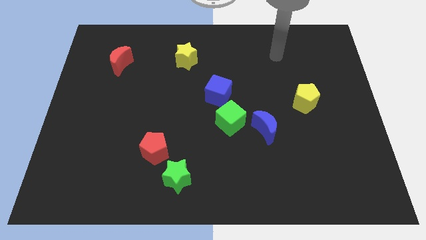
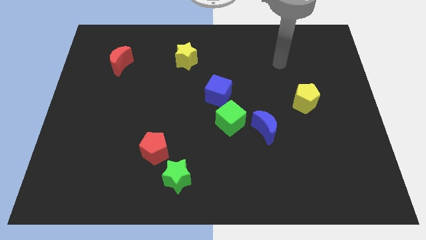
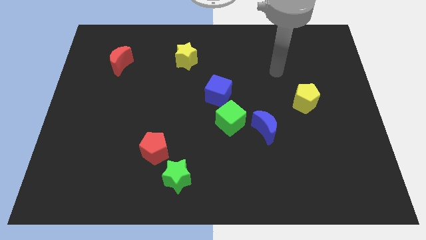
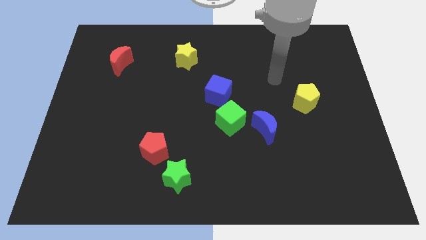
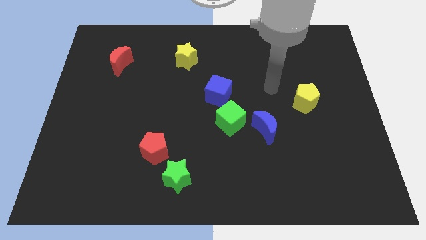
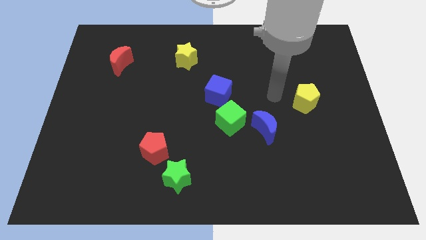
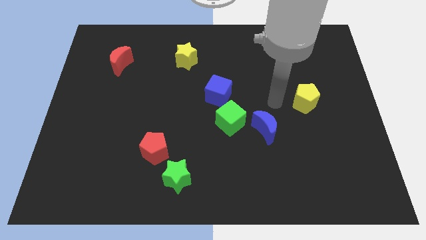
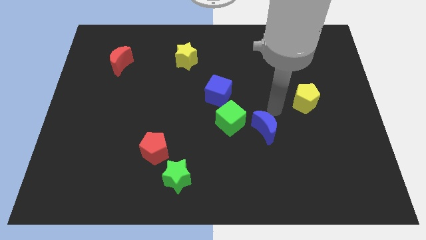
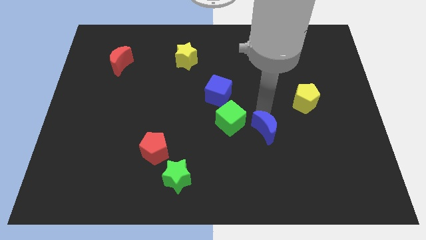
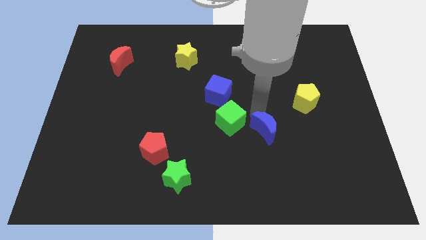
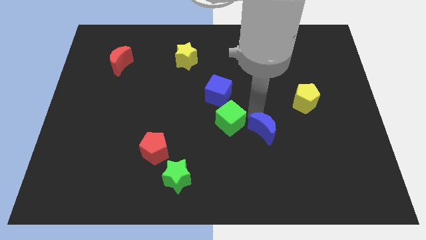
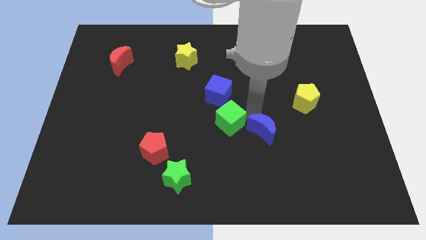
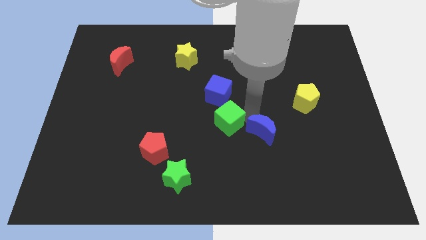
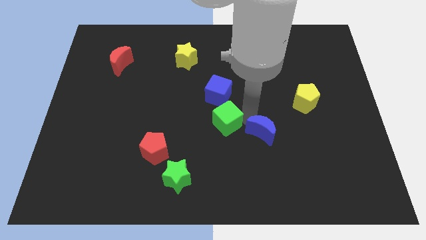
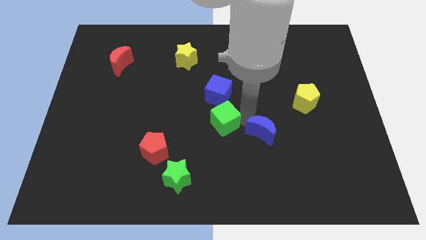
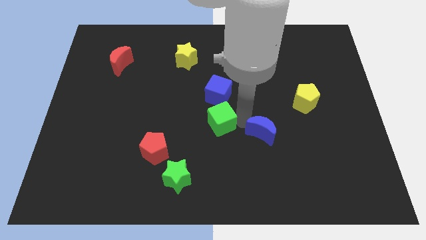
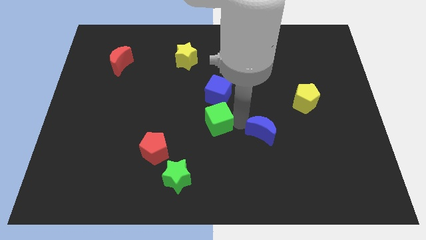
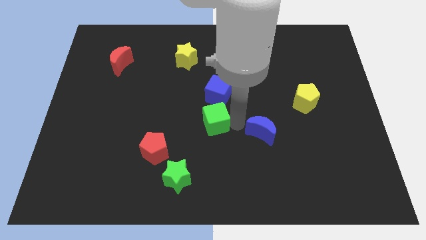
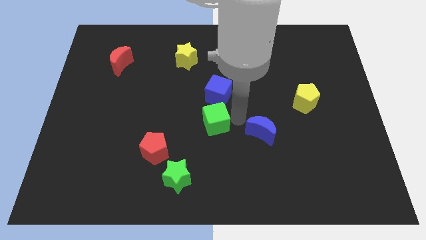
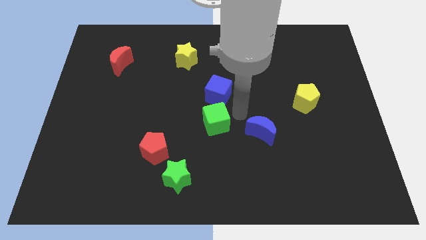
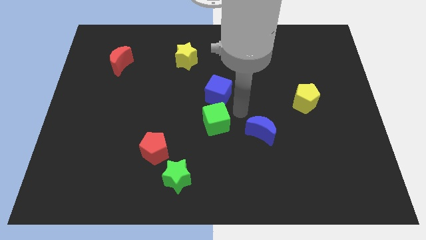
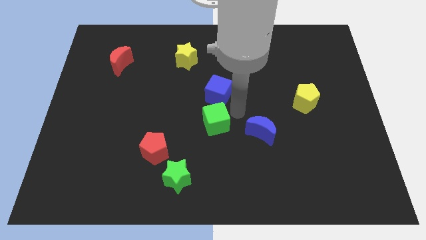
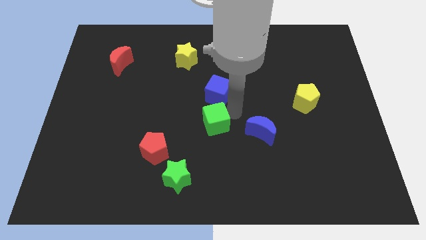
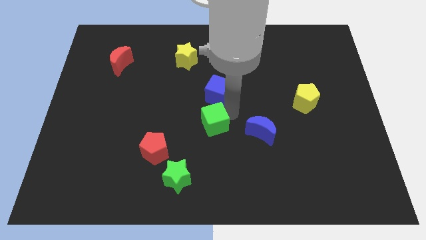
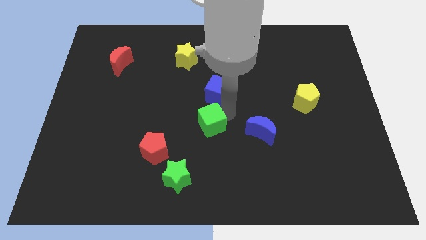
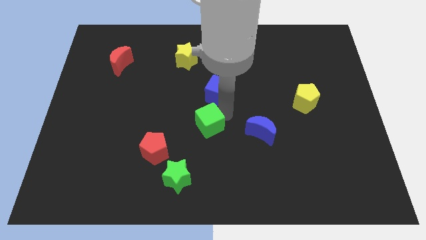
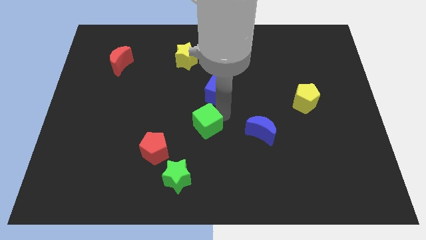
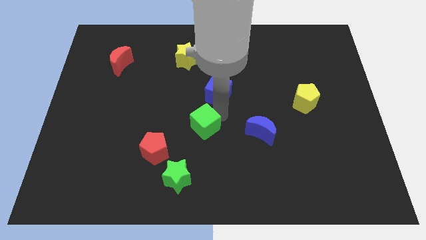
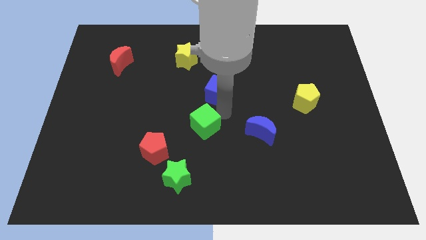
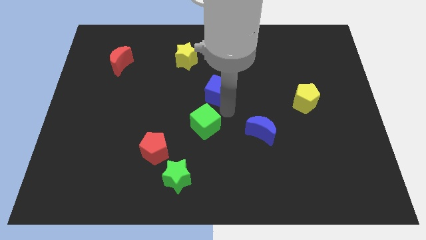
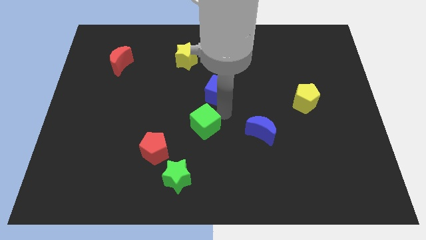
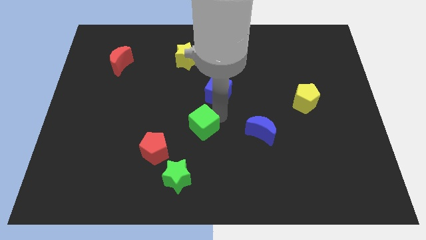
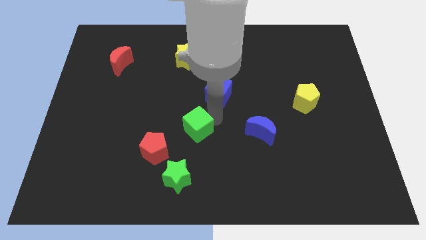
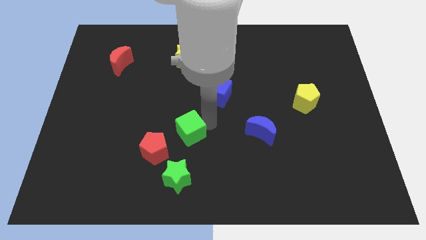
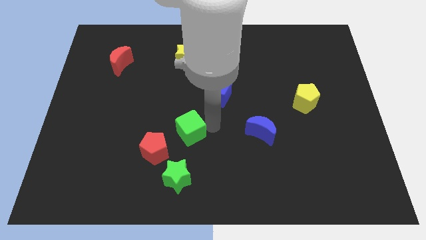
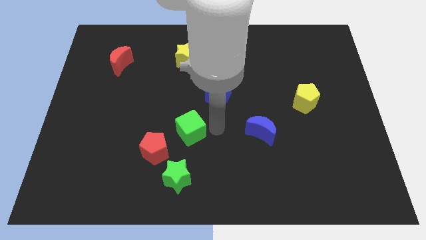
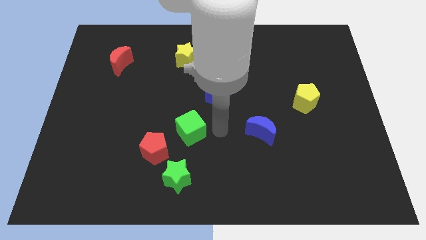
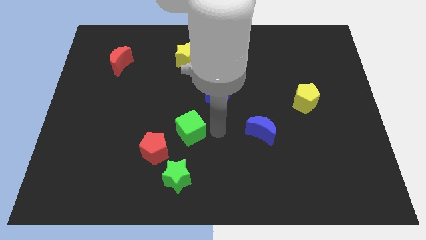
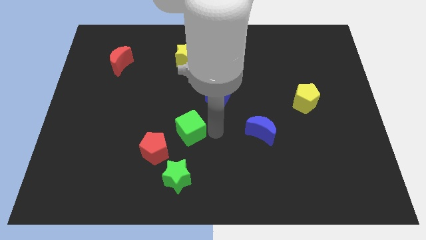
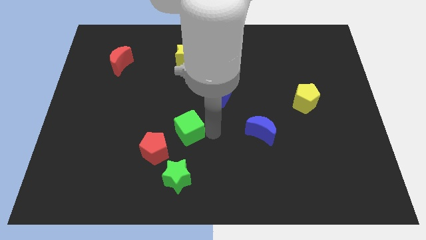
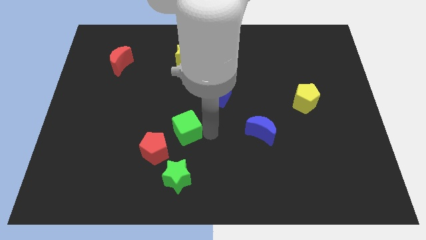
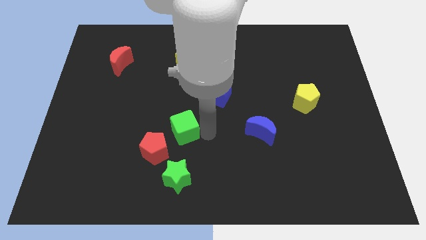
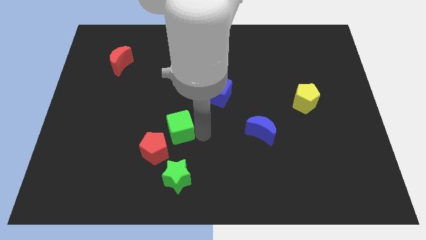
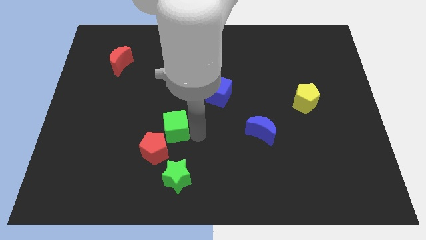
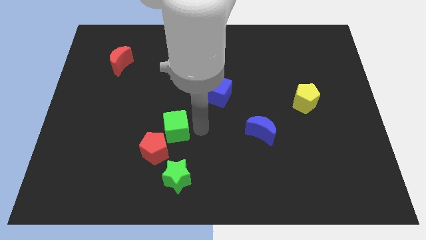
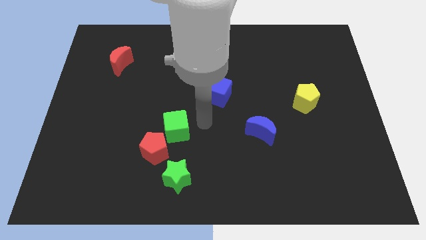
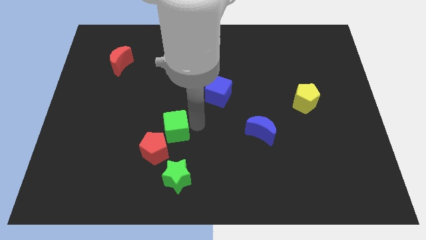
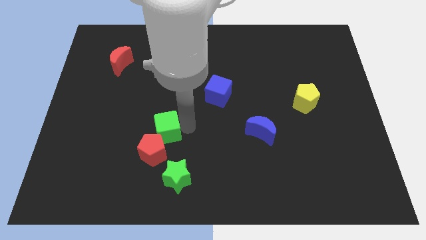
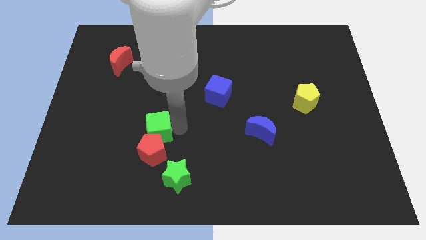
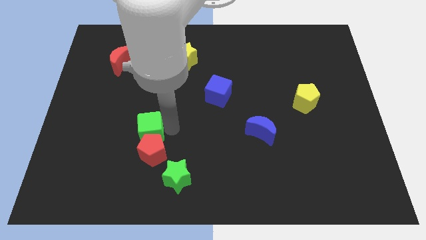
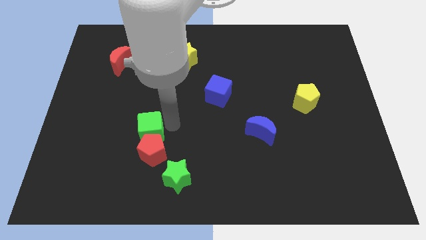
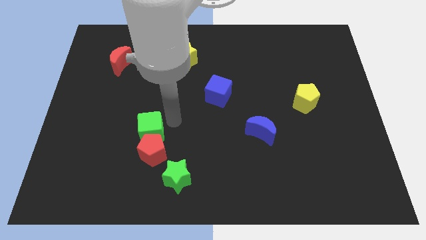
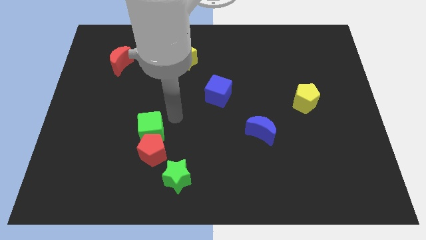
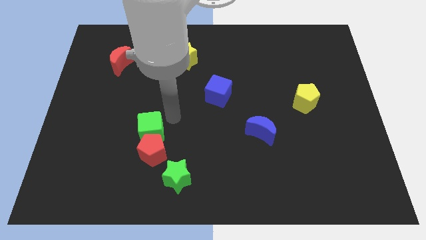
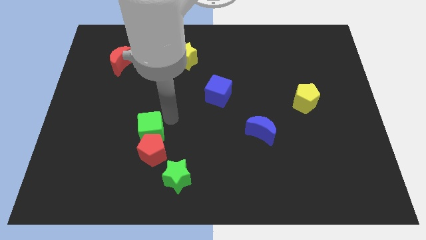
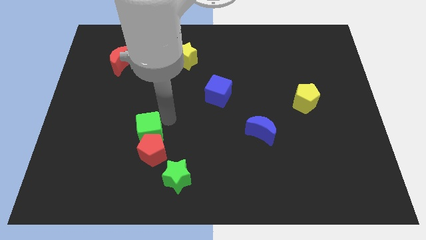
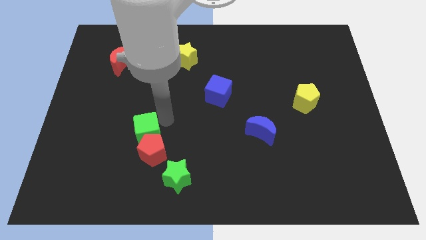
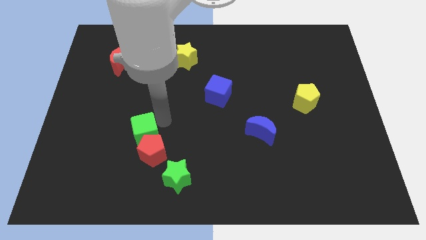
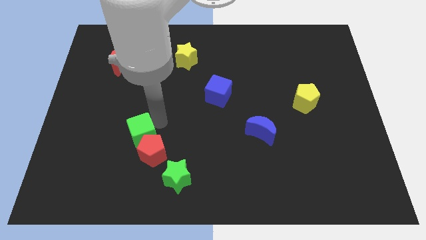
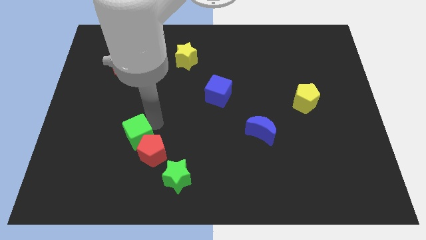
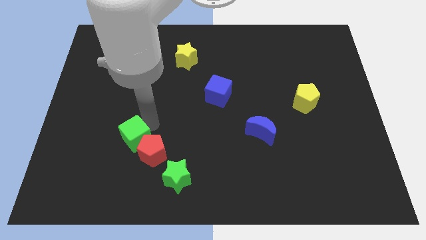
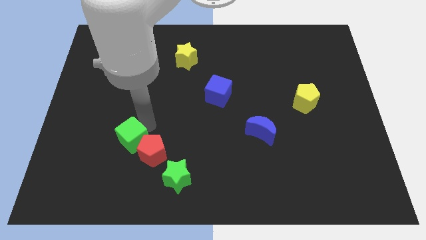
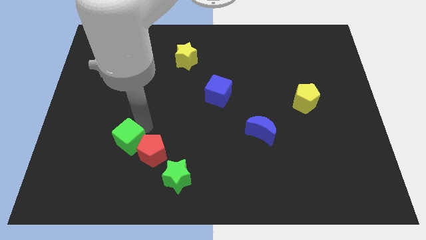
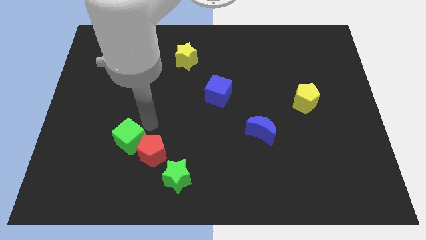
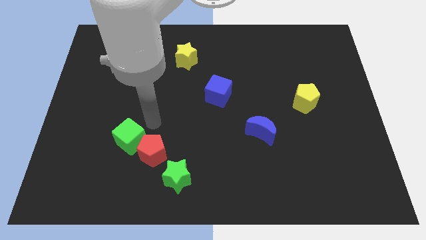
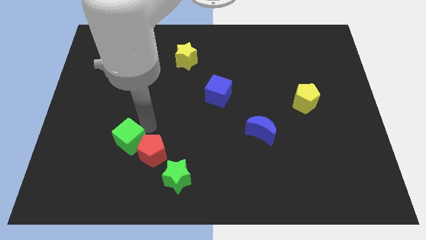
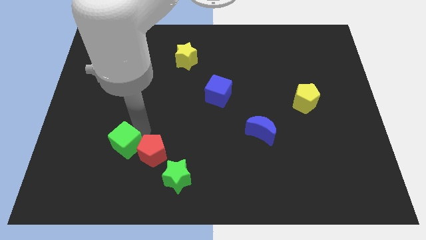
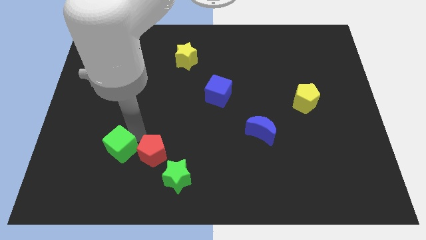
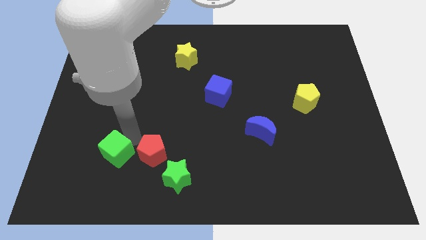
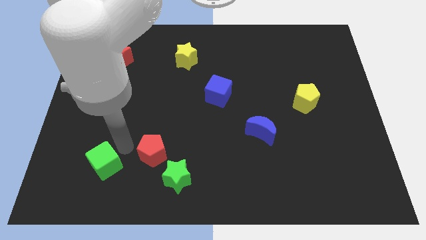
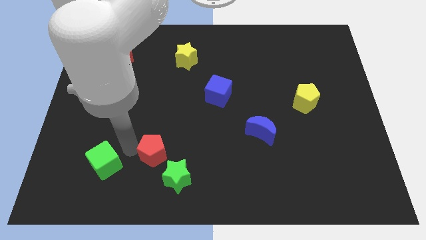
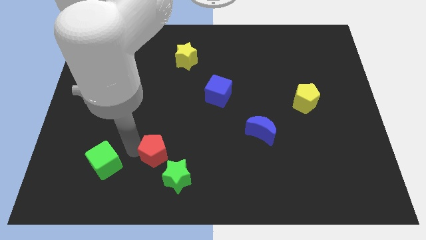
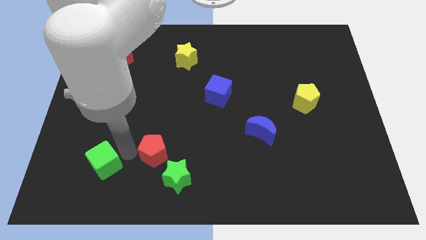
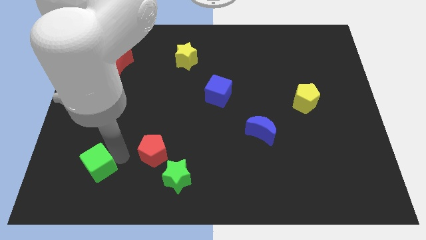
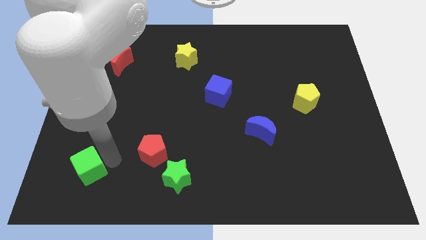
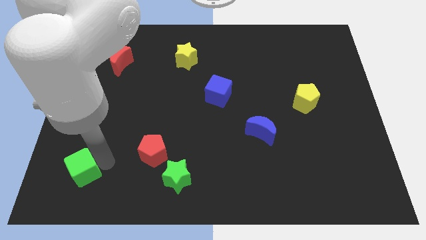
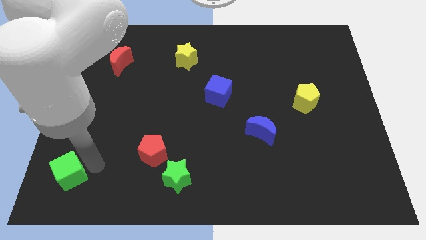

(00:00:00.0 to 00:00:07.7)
move the green cube to the bottom left corner
